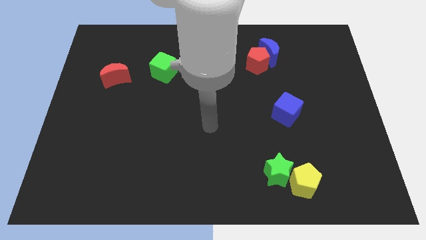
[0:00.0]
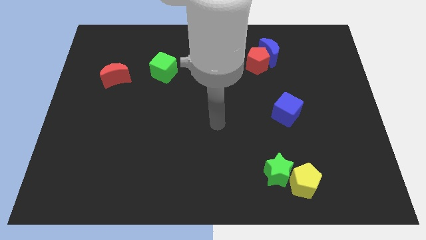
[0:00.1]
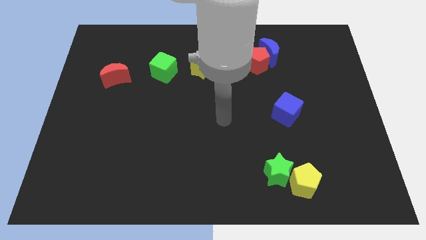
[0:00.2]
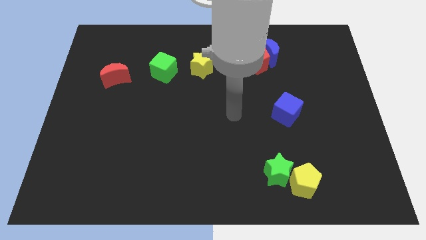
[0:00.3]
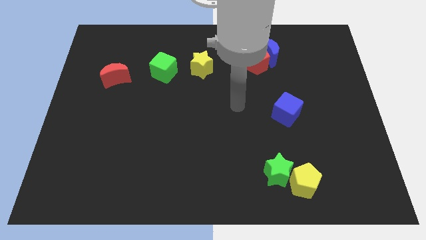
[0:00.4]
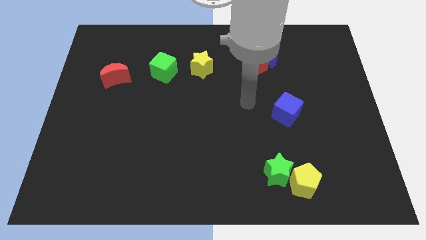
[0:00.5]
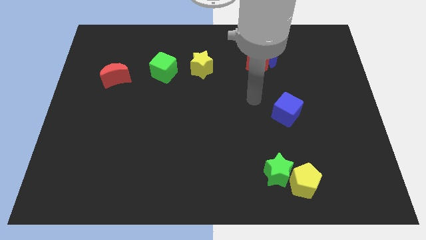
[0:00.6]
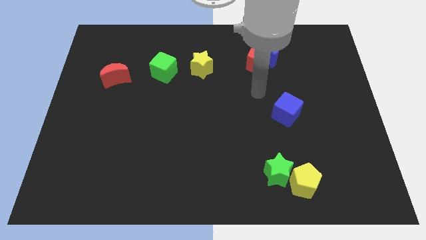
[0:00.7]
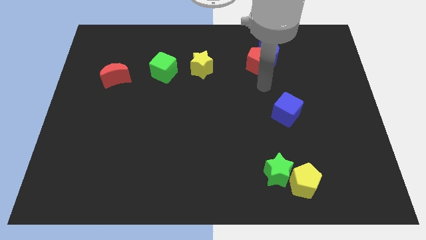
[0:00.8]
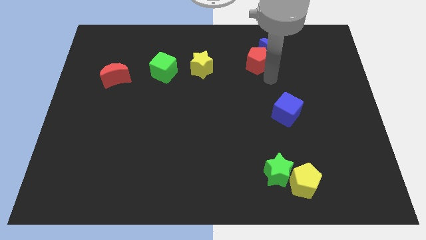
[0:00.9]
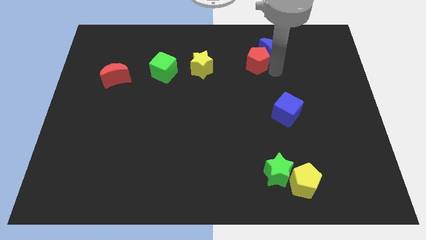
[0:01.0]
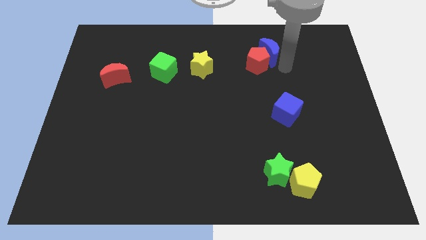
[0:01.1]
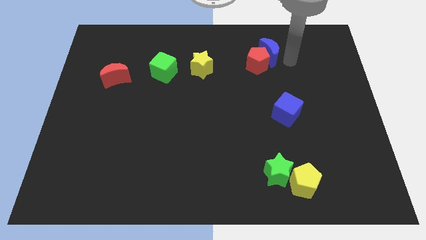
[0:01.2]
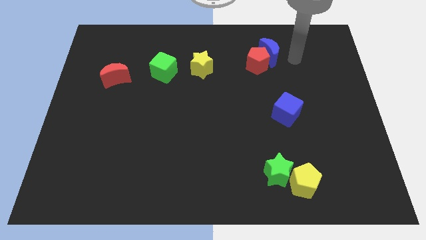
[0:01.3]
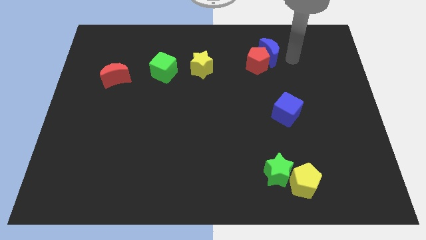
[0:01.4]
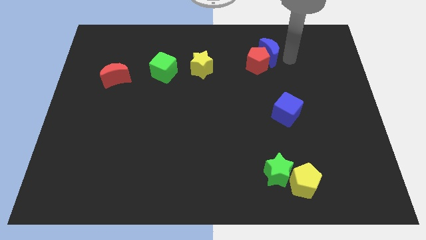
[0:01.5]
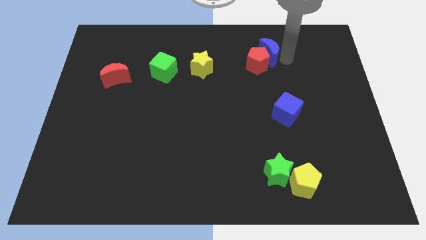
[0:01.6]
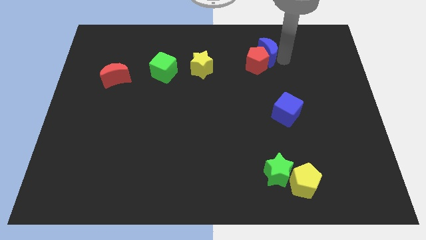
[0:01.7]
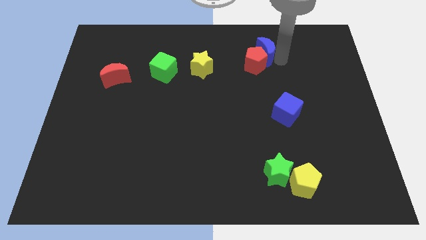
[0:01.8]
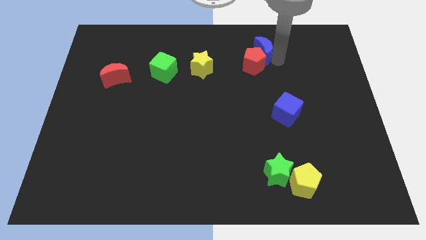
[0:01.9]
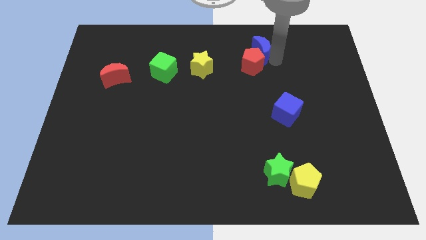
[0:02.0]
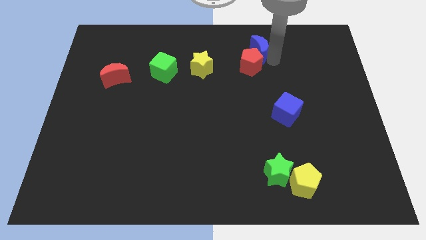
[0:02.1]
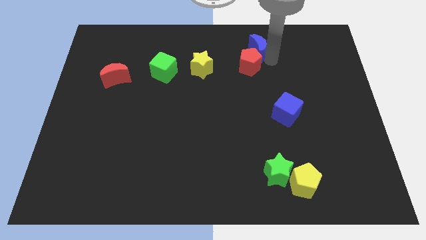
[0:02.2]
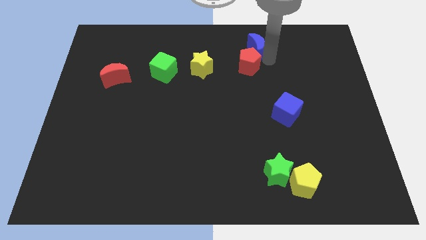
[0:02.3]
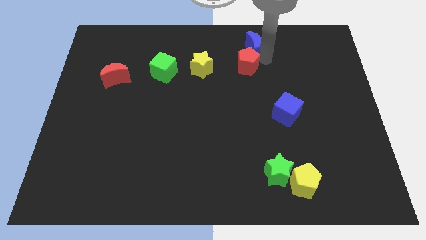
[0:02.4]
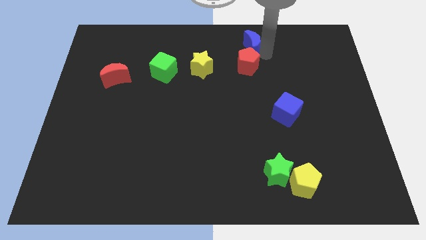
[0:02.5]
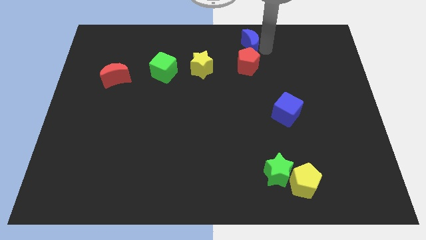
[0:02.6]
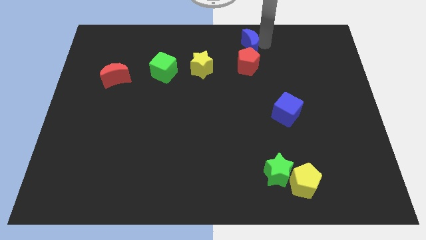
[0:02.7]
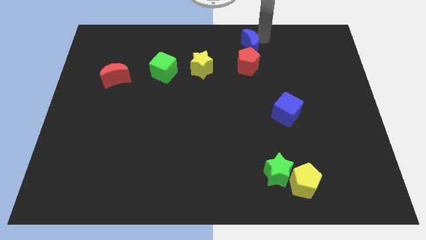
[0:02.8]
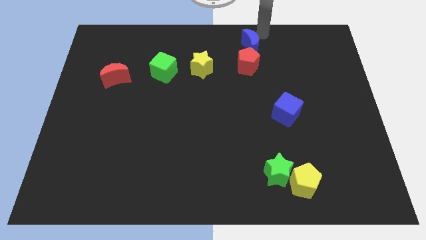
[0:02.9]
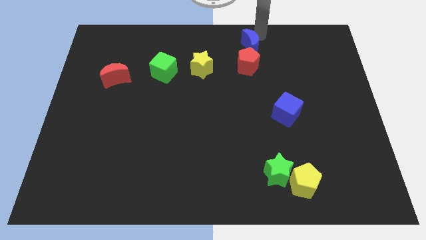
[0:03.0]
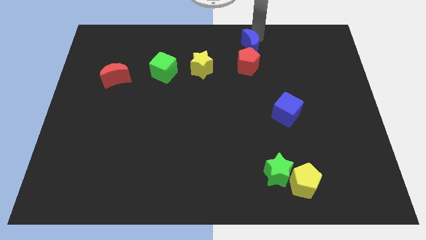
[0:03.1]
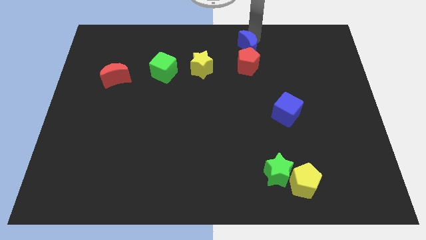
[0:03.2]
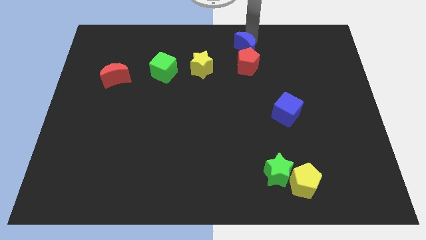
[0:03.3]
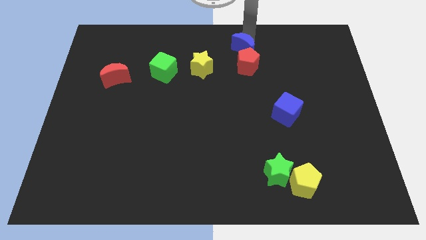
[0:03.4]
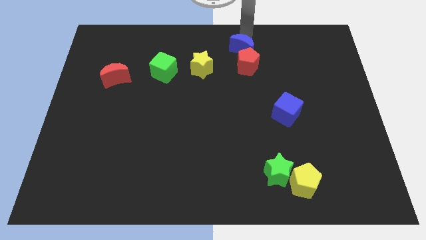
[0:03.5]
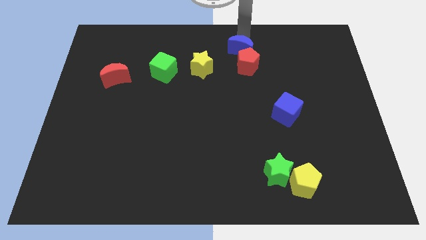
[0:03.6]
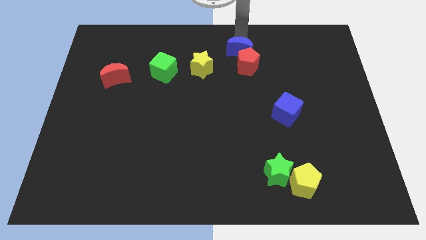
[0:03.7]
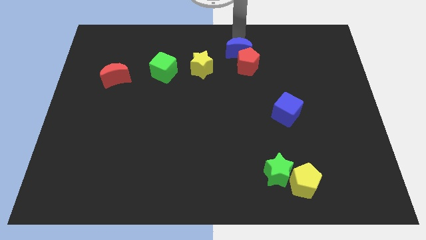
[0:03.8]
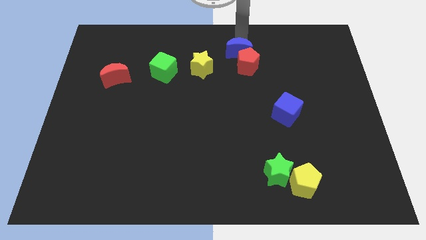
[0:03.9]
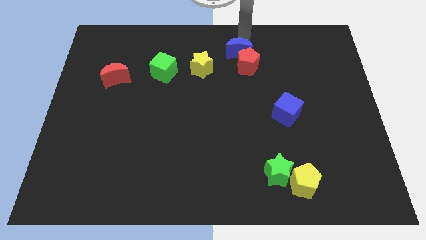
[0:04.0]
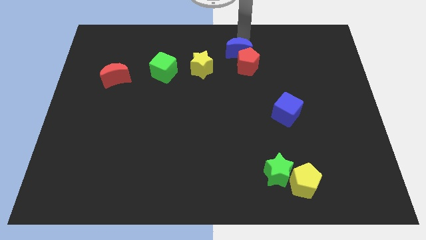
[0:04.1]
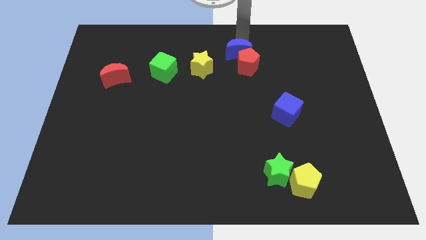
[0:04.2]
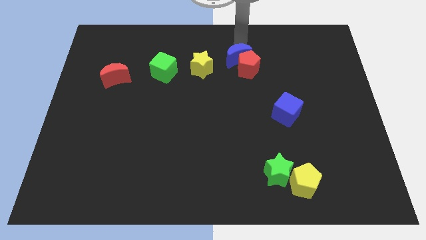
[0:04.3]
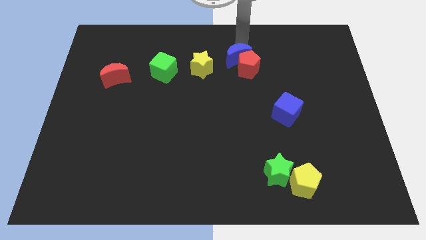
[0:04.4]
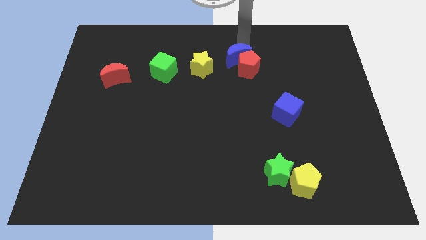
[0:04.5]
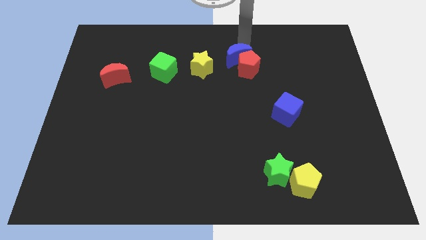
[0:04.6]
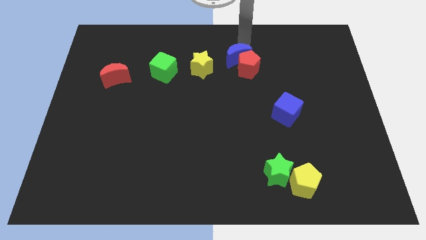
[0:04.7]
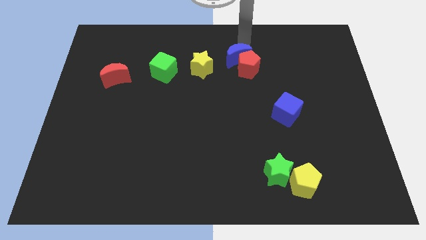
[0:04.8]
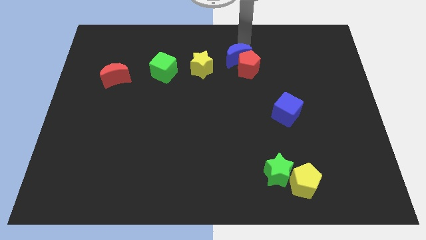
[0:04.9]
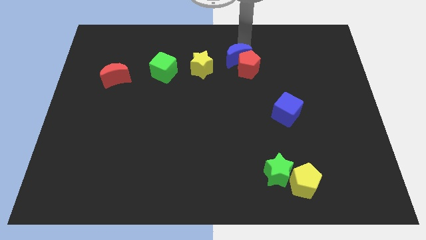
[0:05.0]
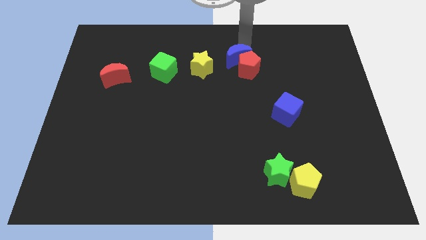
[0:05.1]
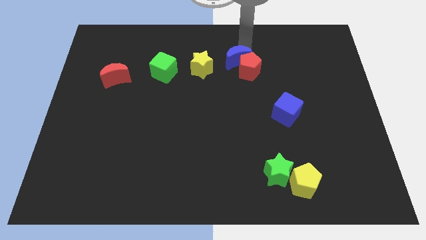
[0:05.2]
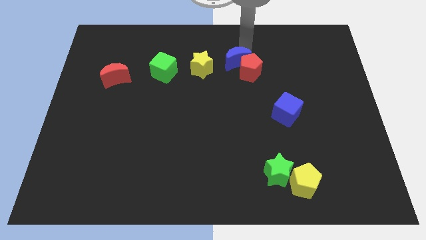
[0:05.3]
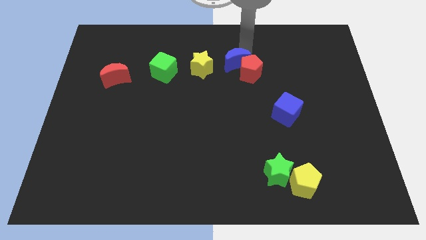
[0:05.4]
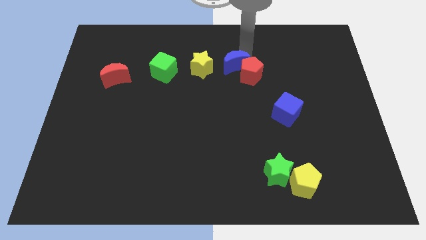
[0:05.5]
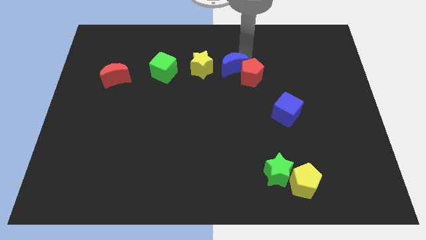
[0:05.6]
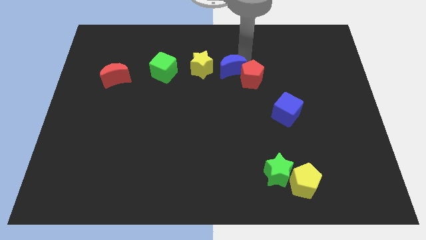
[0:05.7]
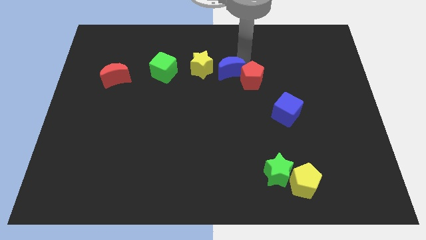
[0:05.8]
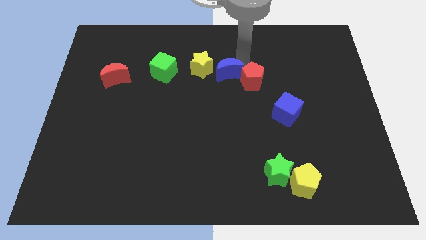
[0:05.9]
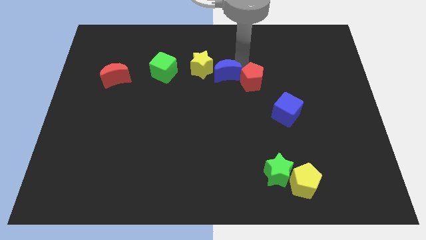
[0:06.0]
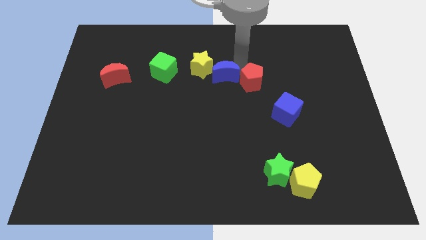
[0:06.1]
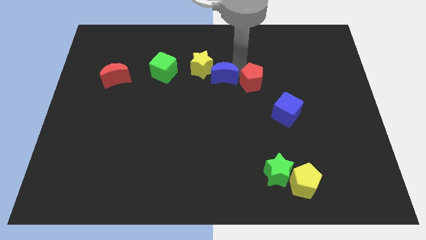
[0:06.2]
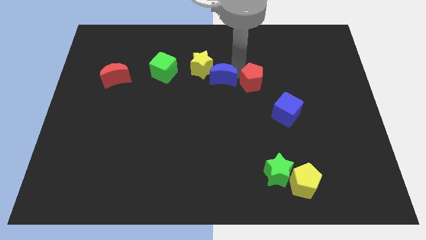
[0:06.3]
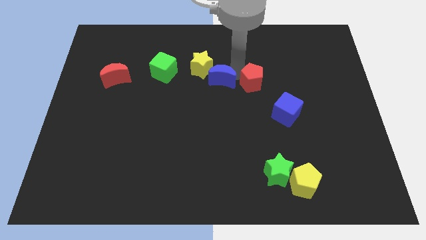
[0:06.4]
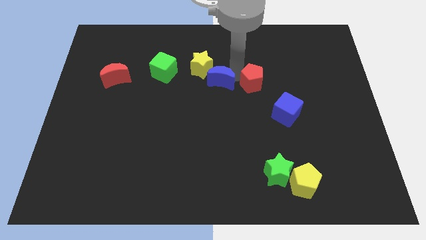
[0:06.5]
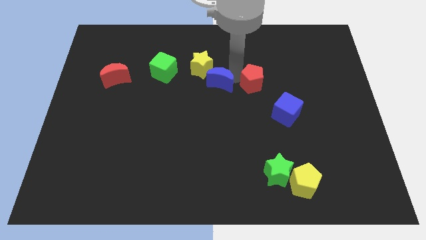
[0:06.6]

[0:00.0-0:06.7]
put the blue moon below the yellow star

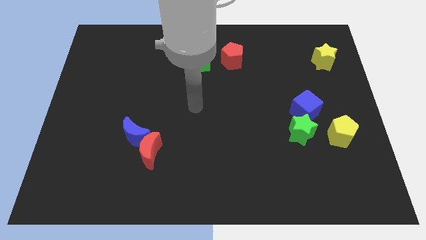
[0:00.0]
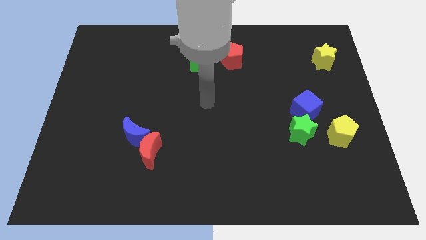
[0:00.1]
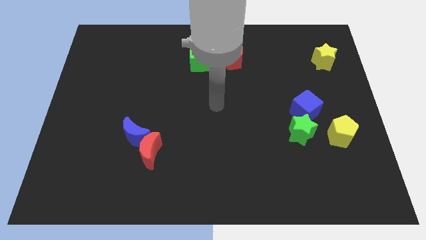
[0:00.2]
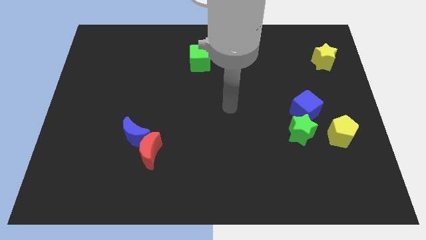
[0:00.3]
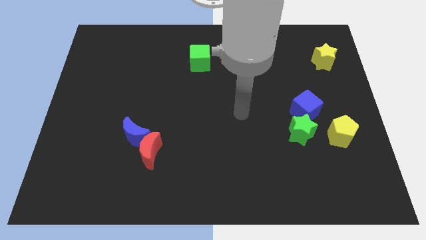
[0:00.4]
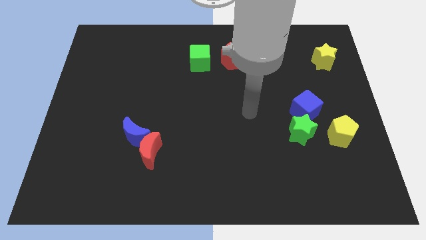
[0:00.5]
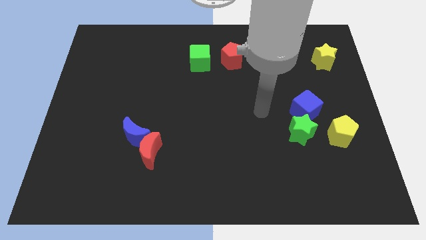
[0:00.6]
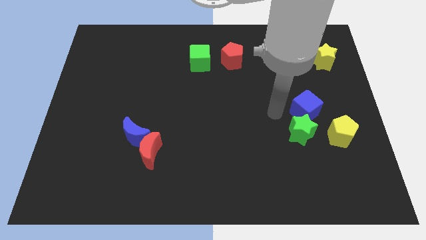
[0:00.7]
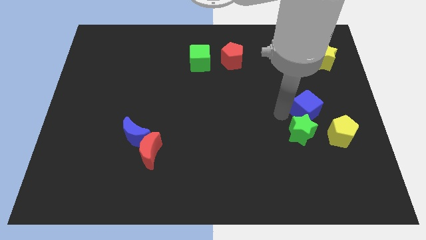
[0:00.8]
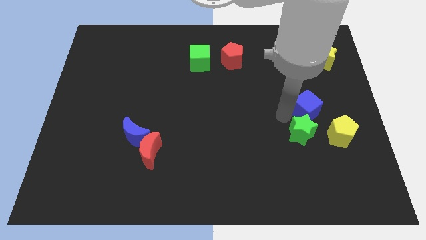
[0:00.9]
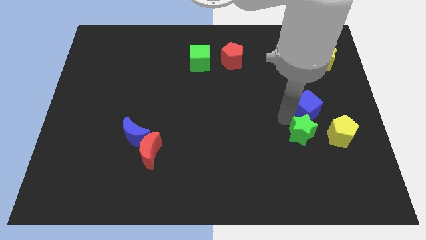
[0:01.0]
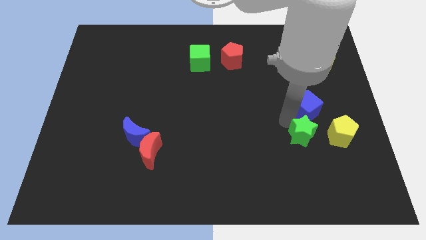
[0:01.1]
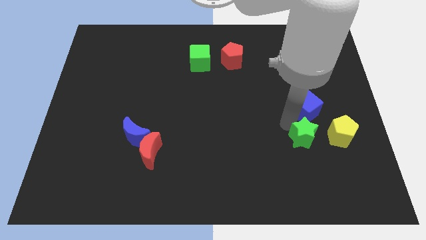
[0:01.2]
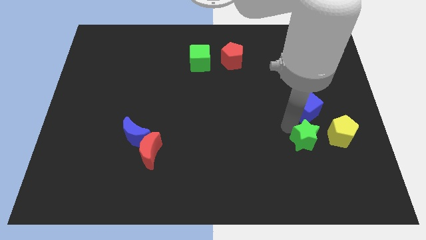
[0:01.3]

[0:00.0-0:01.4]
put the green star to the bottom left of the yellow pentagon
